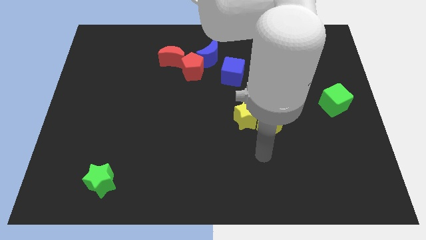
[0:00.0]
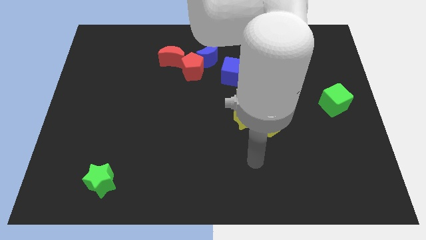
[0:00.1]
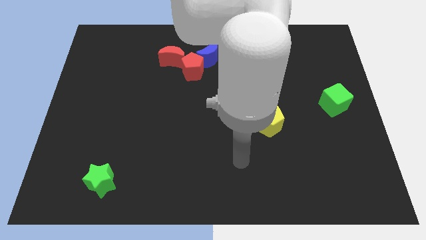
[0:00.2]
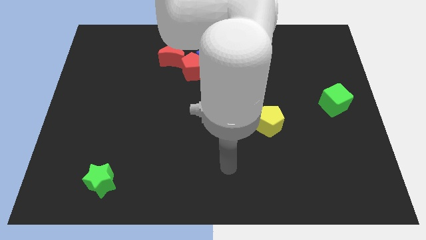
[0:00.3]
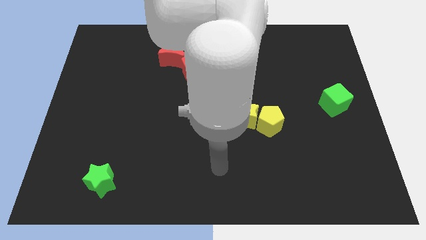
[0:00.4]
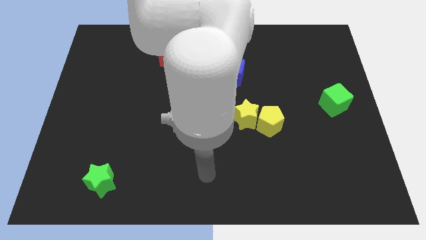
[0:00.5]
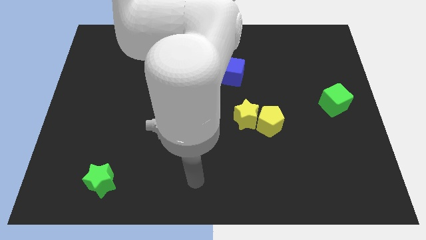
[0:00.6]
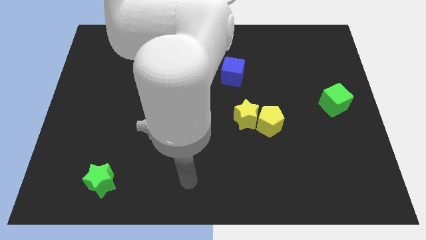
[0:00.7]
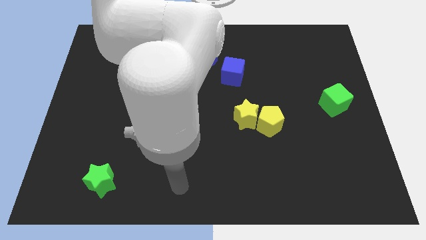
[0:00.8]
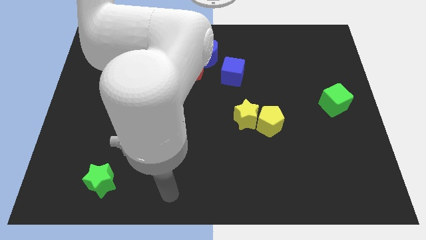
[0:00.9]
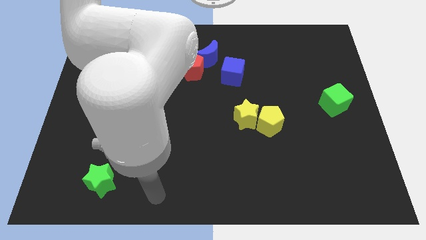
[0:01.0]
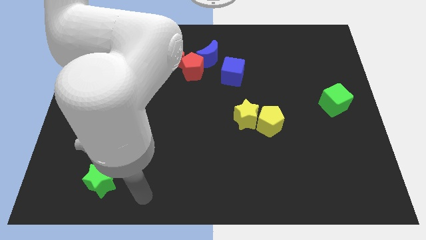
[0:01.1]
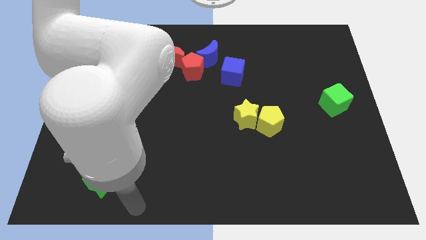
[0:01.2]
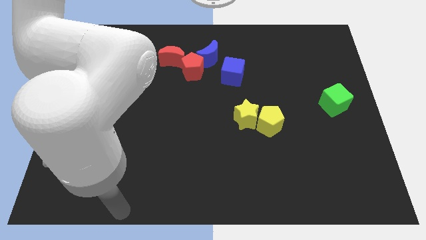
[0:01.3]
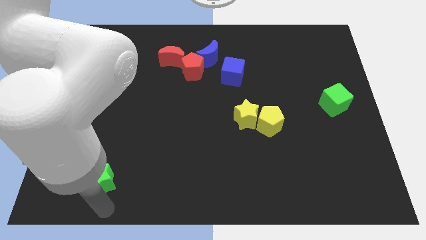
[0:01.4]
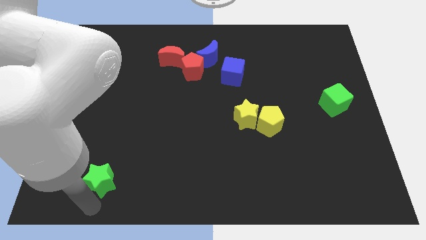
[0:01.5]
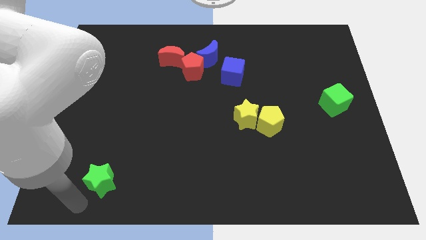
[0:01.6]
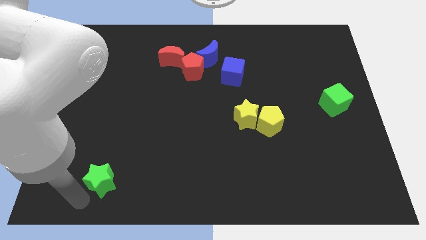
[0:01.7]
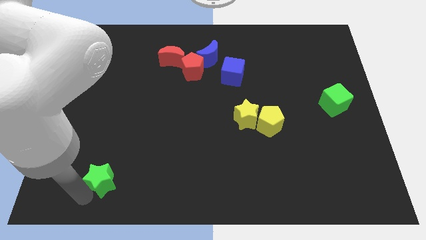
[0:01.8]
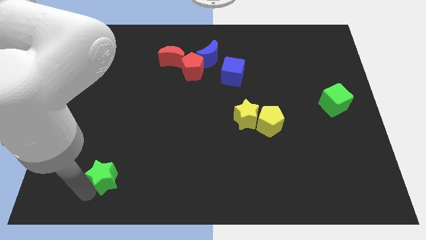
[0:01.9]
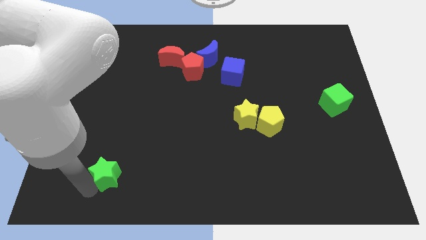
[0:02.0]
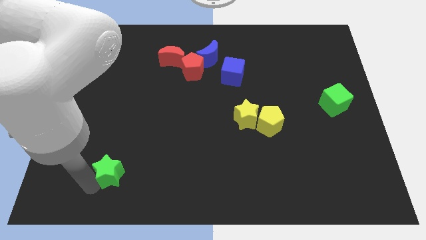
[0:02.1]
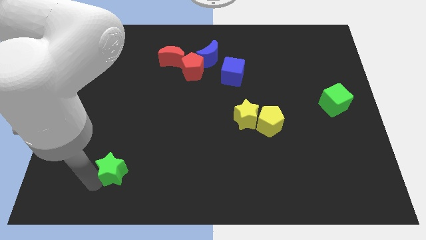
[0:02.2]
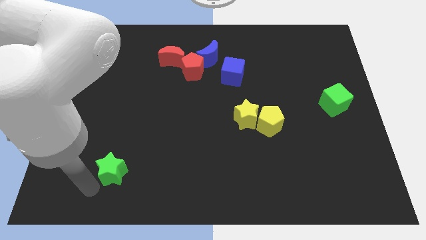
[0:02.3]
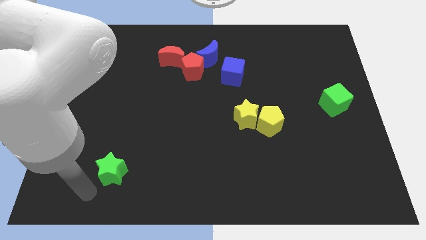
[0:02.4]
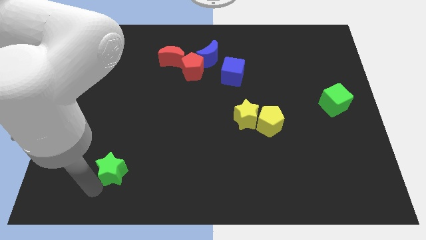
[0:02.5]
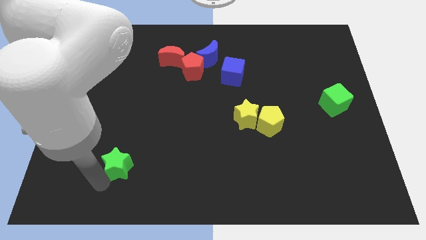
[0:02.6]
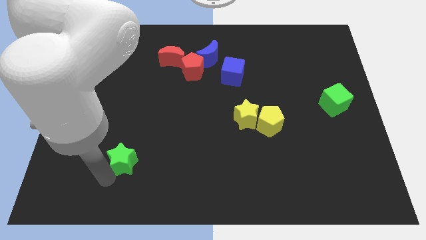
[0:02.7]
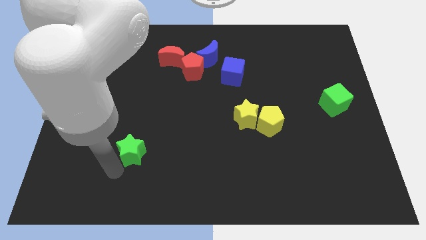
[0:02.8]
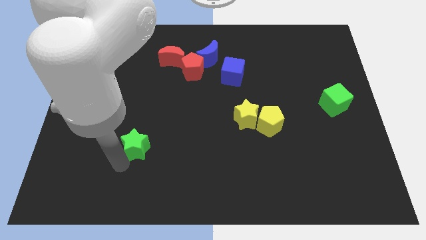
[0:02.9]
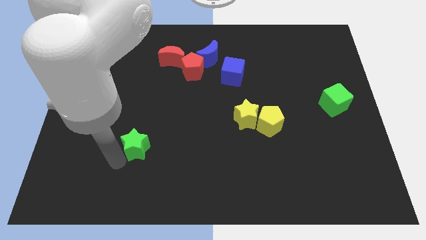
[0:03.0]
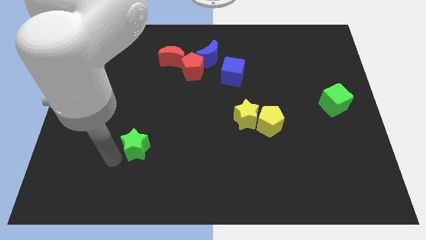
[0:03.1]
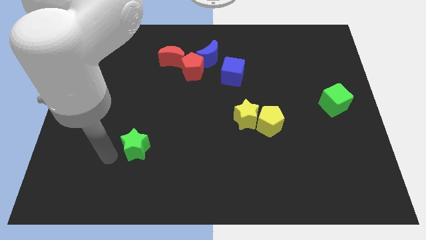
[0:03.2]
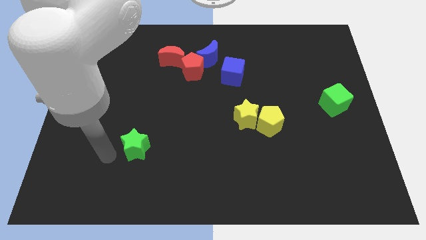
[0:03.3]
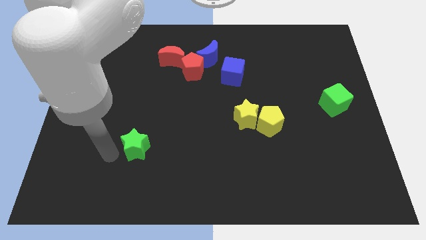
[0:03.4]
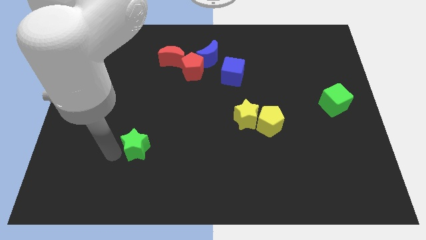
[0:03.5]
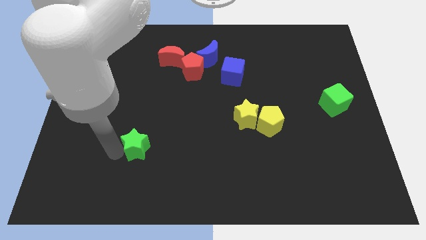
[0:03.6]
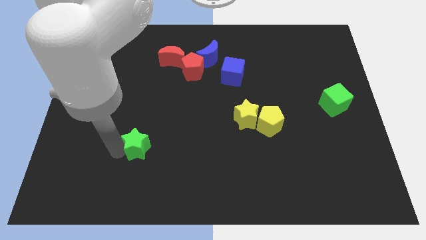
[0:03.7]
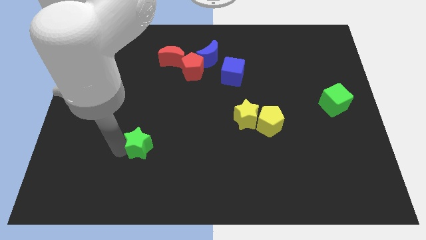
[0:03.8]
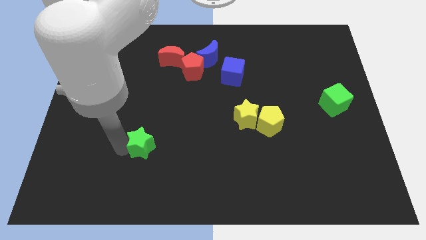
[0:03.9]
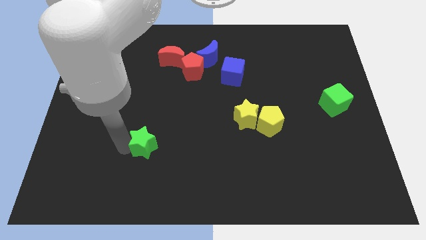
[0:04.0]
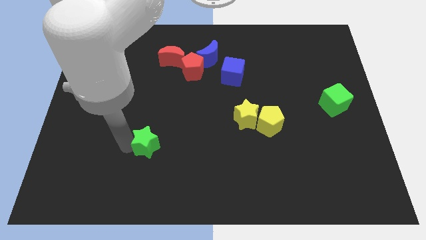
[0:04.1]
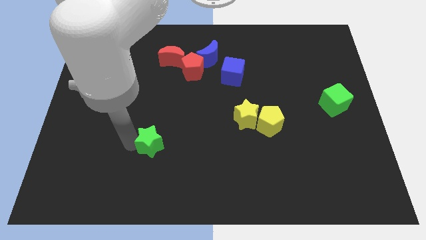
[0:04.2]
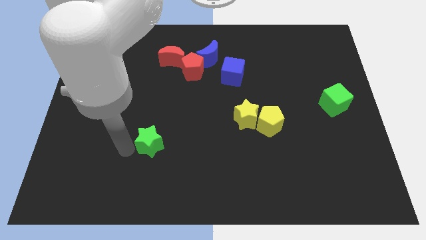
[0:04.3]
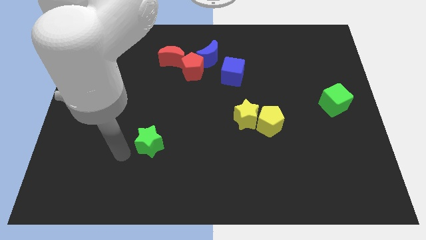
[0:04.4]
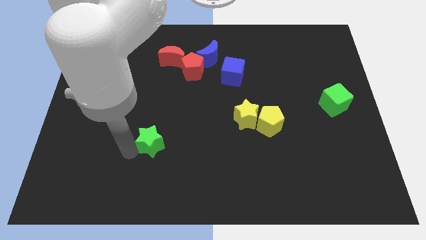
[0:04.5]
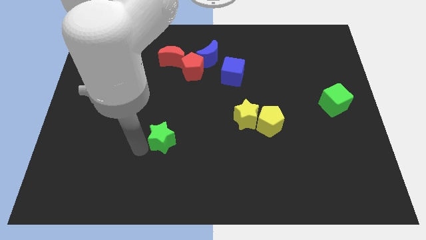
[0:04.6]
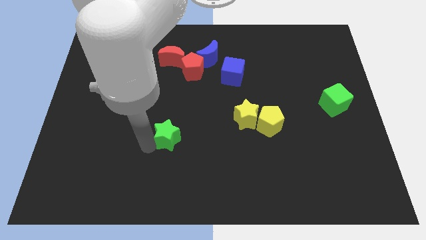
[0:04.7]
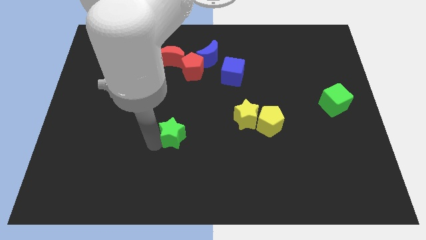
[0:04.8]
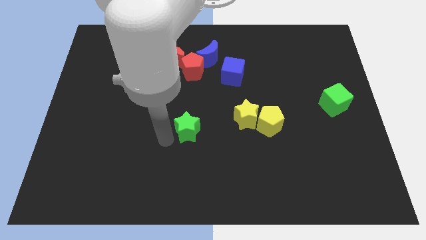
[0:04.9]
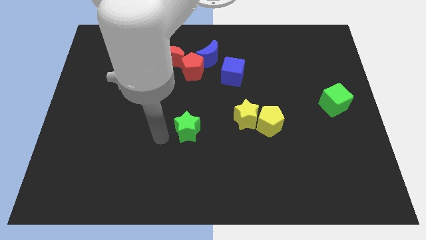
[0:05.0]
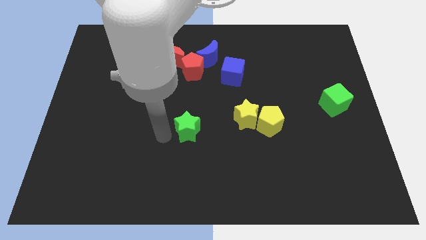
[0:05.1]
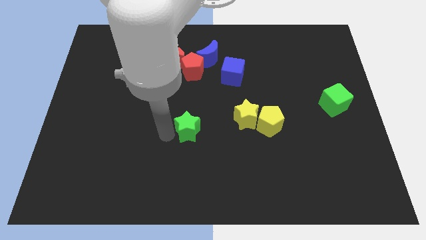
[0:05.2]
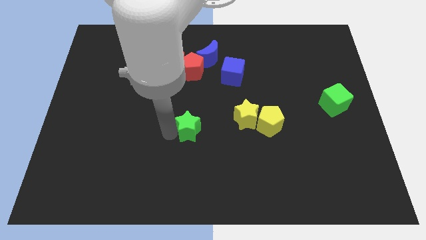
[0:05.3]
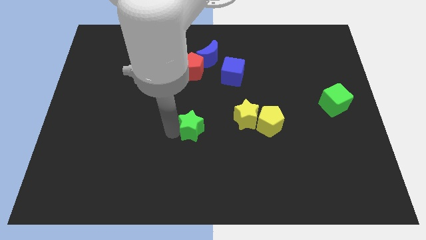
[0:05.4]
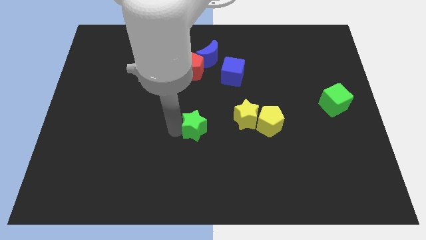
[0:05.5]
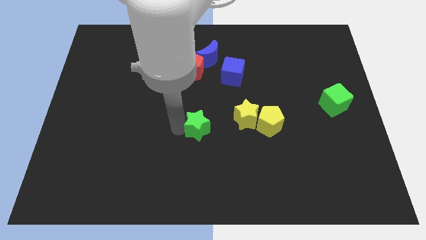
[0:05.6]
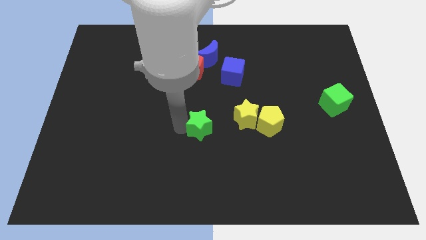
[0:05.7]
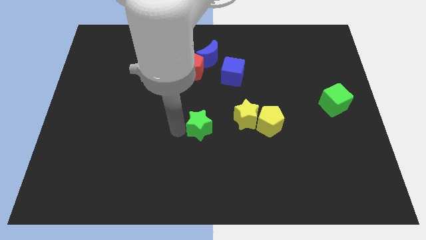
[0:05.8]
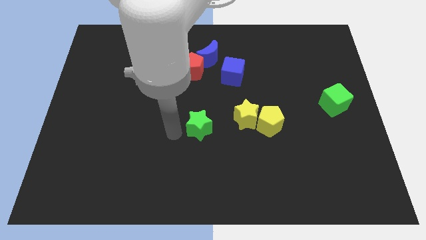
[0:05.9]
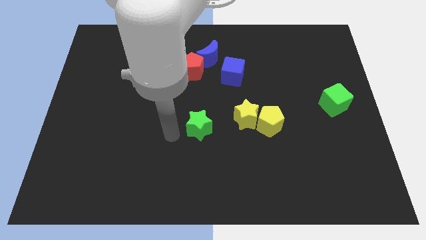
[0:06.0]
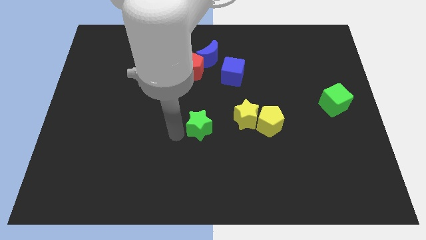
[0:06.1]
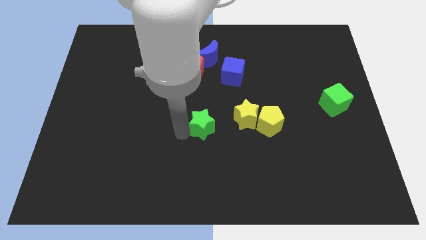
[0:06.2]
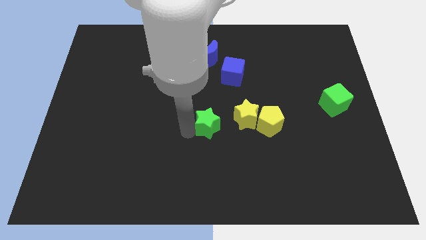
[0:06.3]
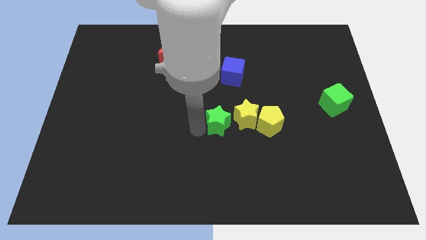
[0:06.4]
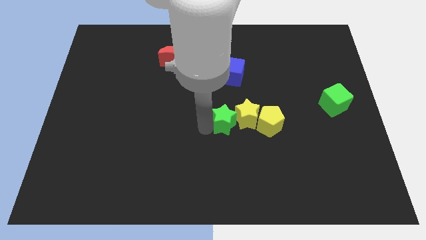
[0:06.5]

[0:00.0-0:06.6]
put the green star to the yellow star
